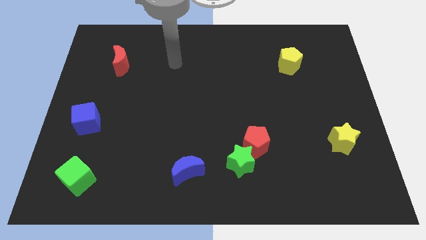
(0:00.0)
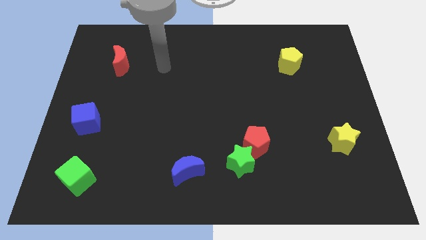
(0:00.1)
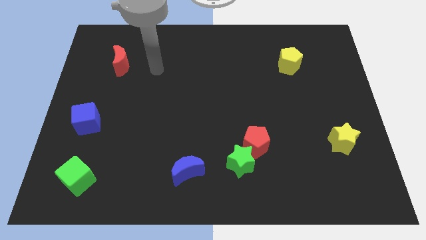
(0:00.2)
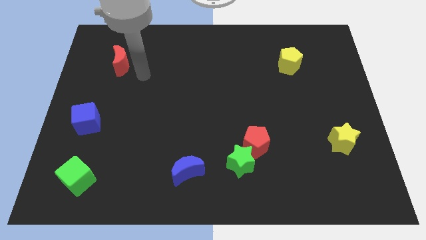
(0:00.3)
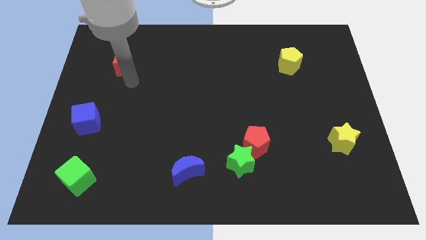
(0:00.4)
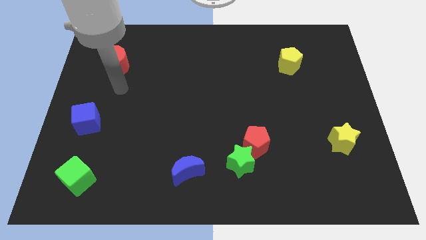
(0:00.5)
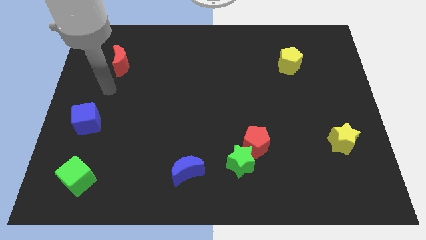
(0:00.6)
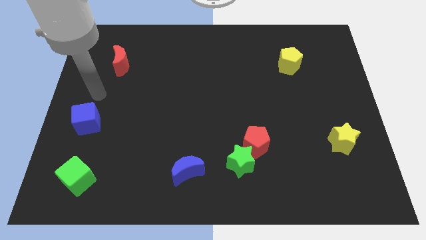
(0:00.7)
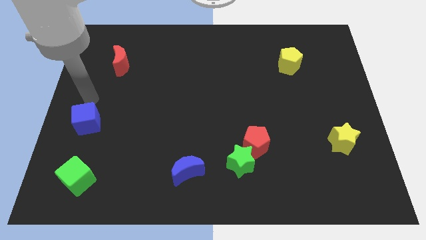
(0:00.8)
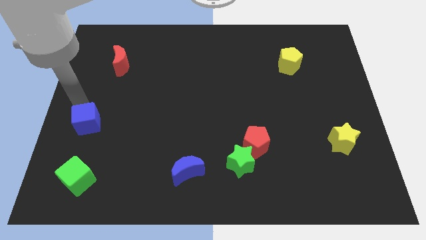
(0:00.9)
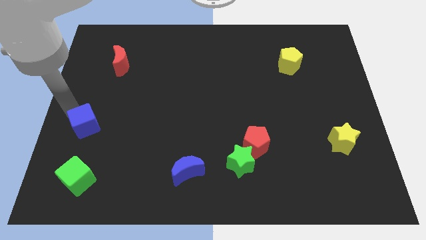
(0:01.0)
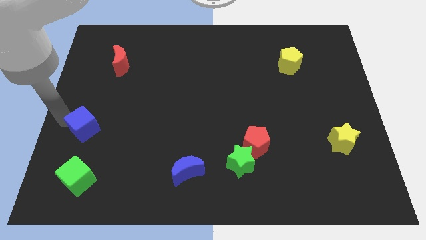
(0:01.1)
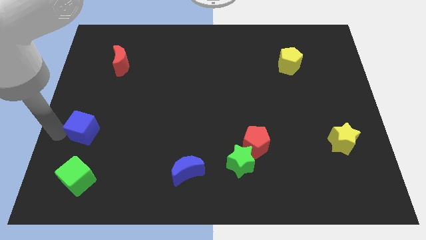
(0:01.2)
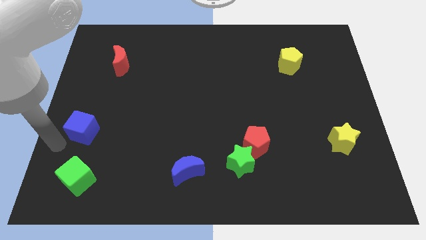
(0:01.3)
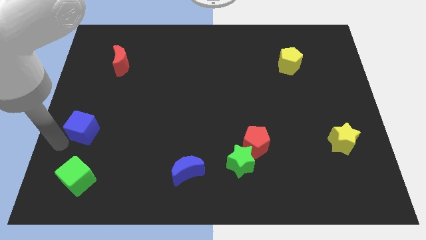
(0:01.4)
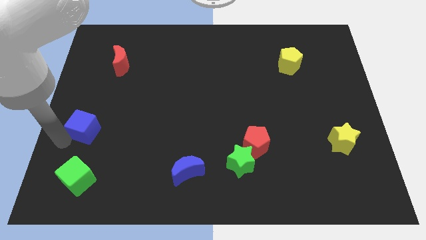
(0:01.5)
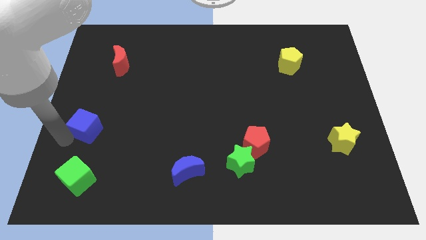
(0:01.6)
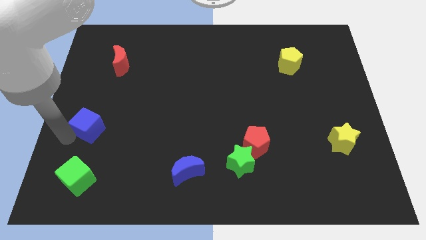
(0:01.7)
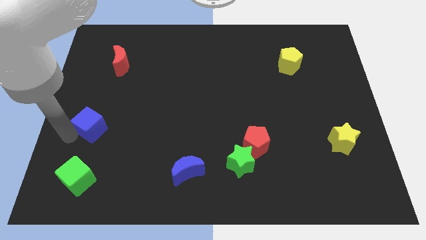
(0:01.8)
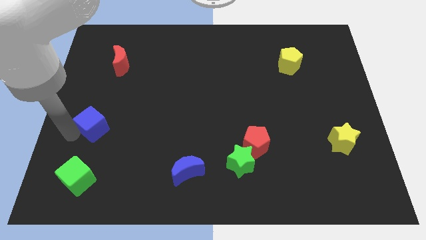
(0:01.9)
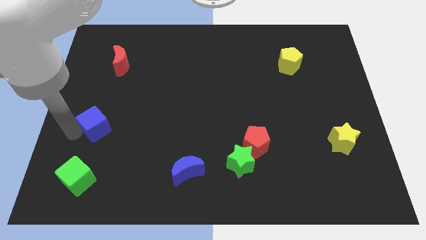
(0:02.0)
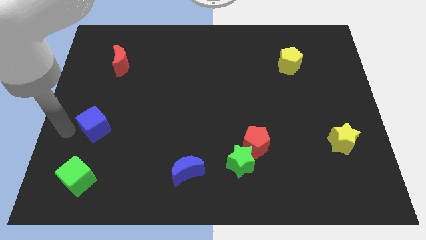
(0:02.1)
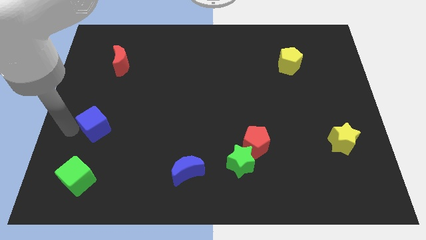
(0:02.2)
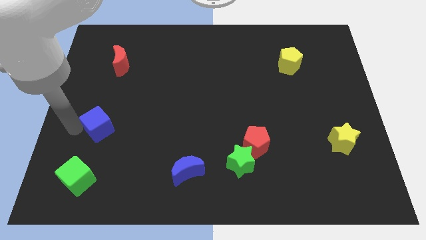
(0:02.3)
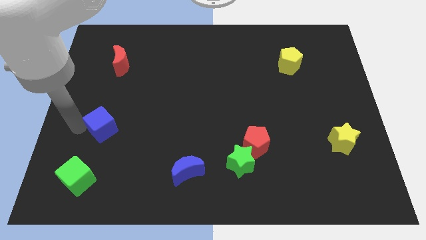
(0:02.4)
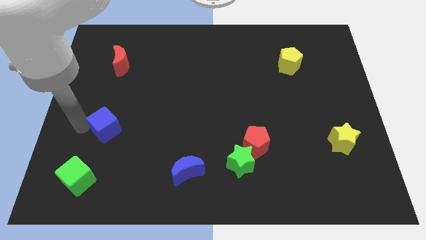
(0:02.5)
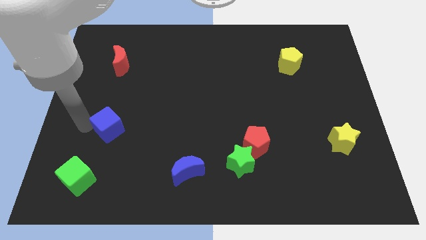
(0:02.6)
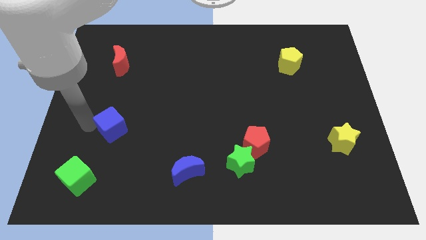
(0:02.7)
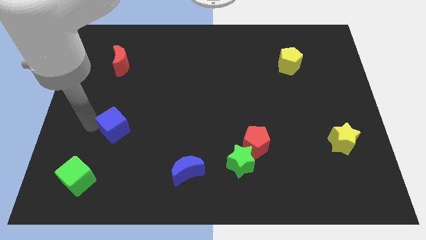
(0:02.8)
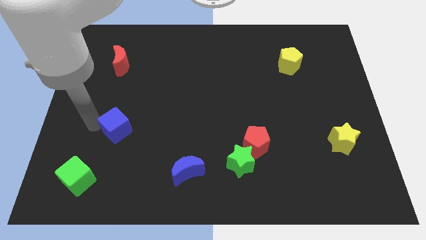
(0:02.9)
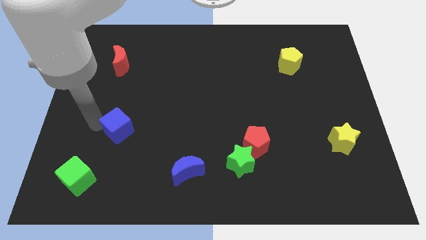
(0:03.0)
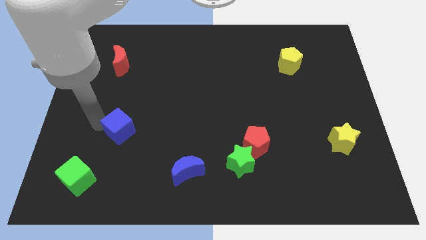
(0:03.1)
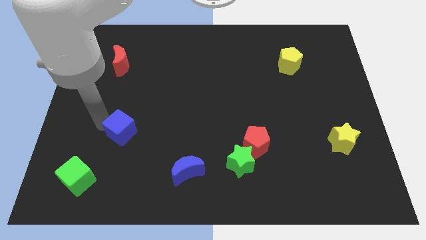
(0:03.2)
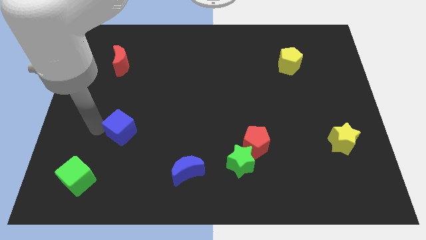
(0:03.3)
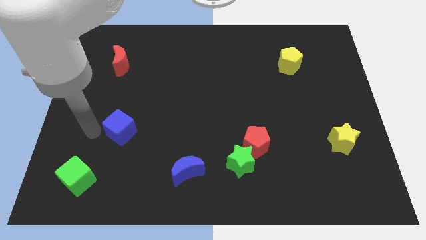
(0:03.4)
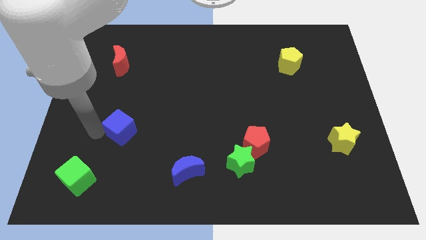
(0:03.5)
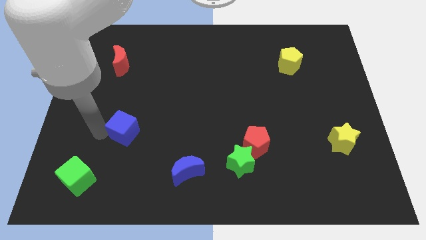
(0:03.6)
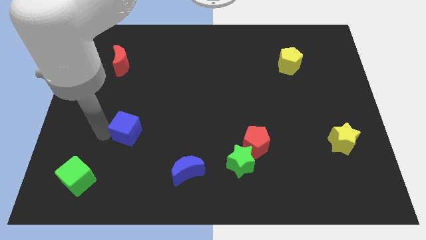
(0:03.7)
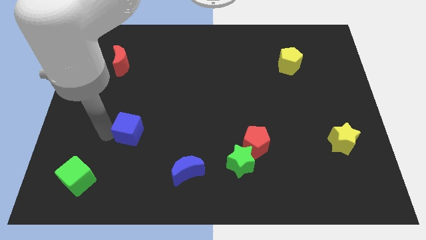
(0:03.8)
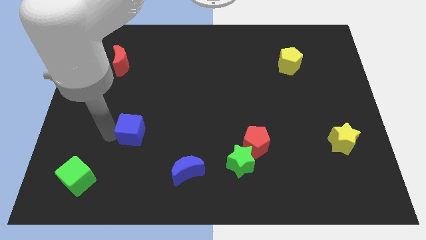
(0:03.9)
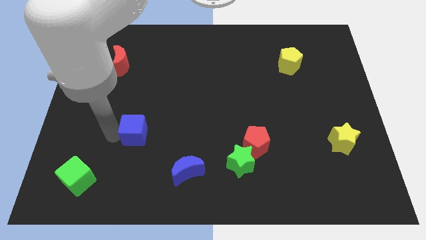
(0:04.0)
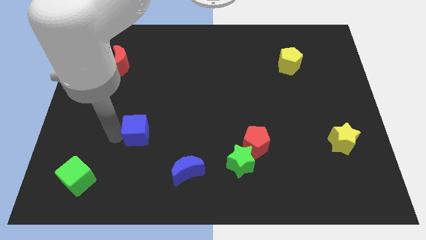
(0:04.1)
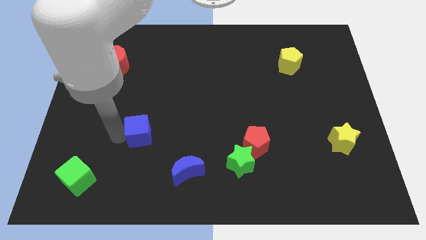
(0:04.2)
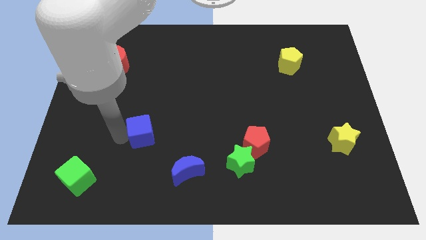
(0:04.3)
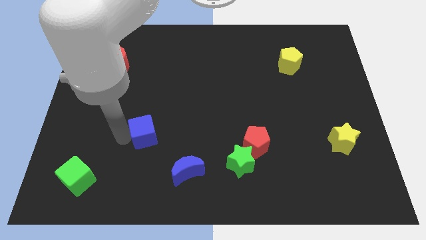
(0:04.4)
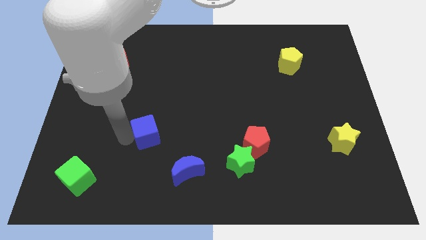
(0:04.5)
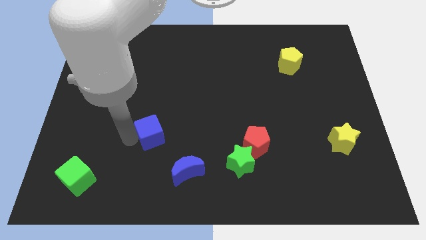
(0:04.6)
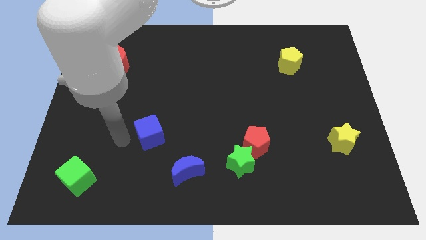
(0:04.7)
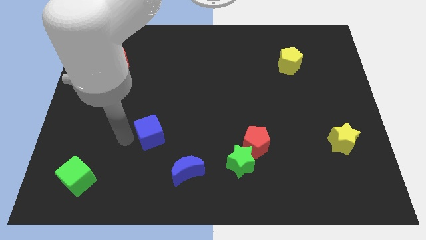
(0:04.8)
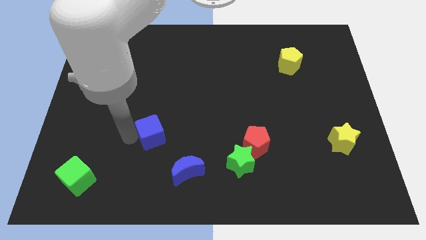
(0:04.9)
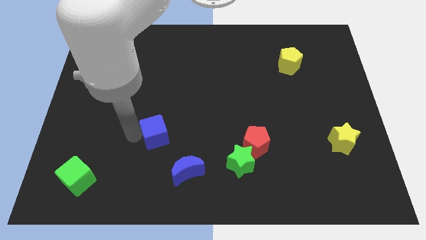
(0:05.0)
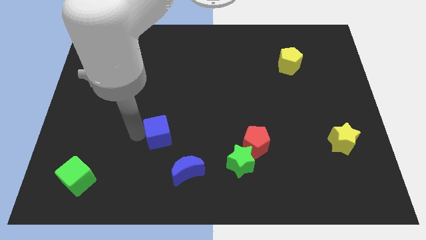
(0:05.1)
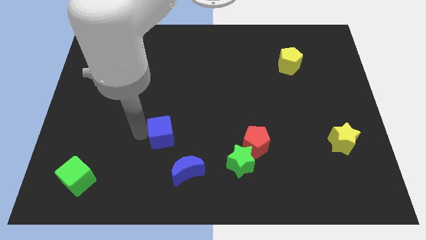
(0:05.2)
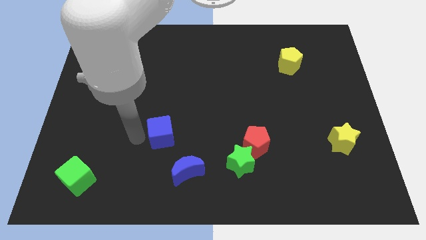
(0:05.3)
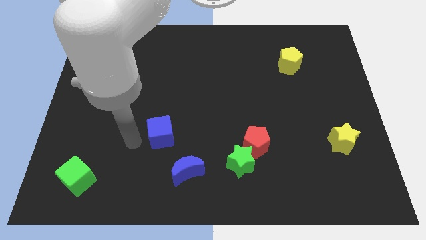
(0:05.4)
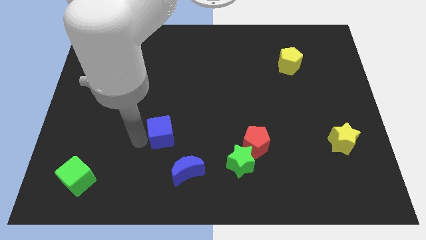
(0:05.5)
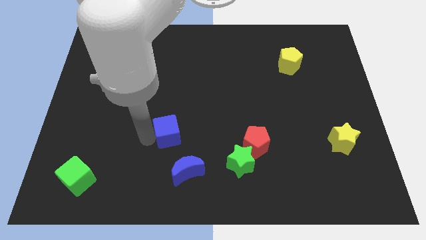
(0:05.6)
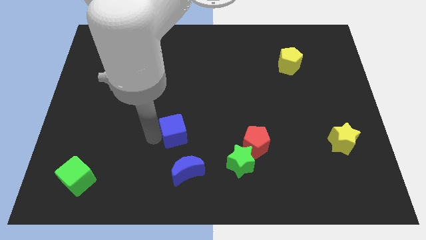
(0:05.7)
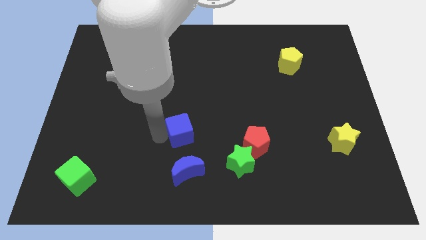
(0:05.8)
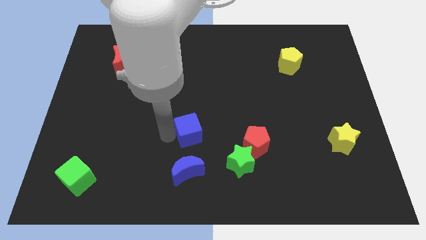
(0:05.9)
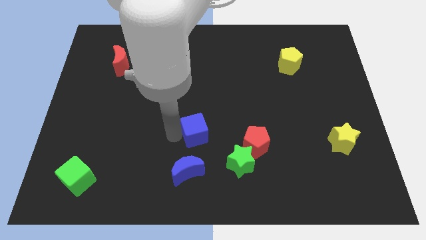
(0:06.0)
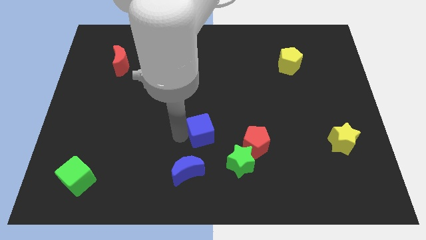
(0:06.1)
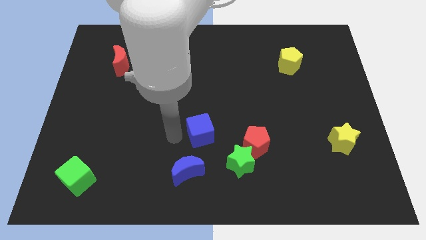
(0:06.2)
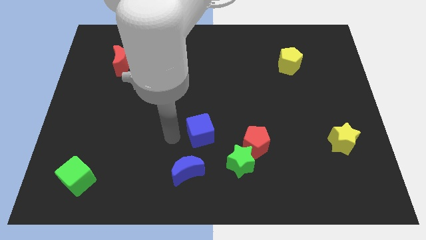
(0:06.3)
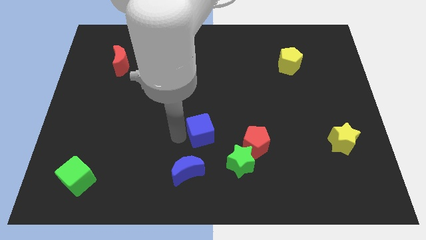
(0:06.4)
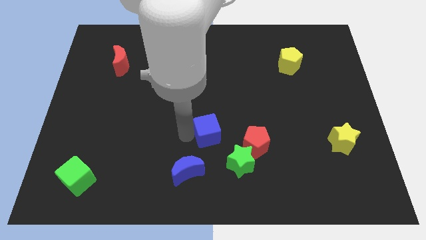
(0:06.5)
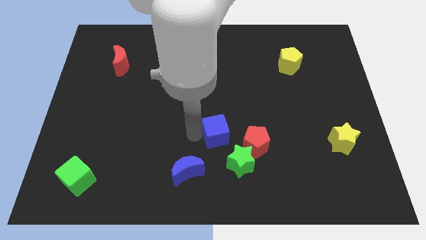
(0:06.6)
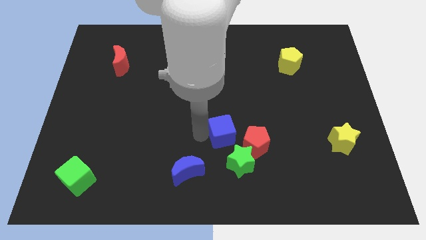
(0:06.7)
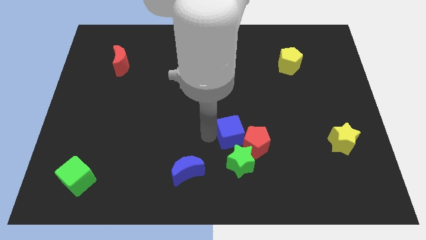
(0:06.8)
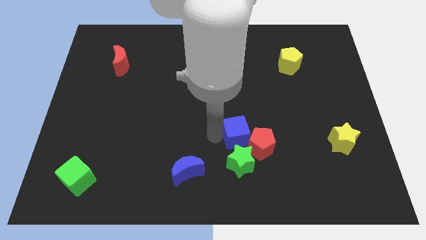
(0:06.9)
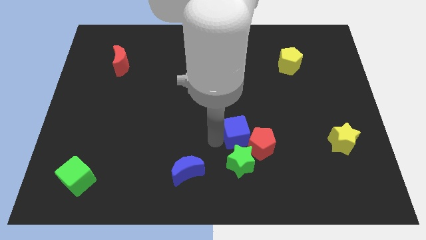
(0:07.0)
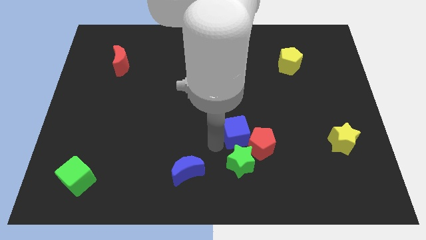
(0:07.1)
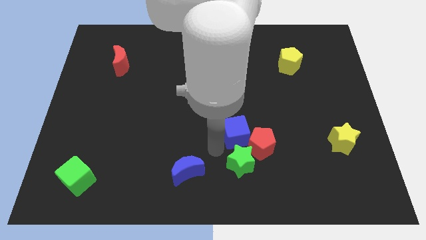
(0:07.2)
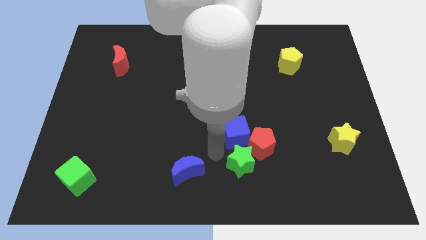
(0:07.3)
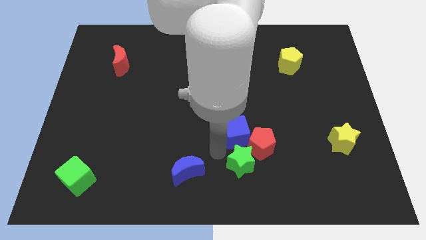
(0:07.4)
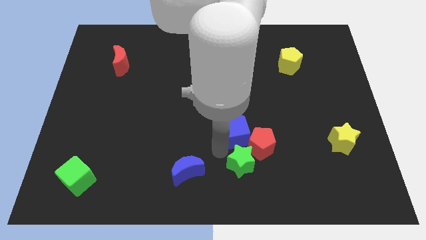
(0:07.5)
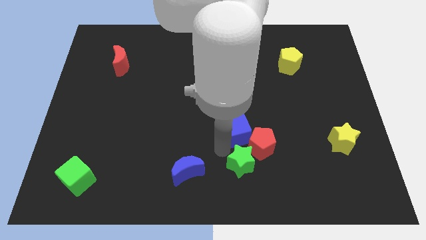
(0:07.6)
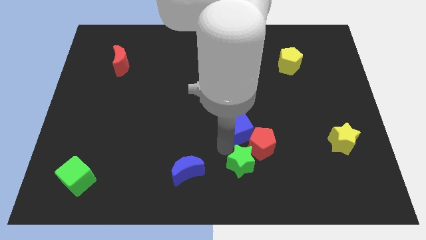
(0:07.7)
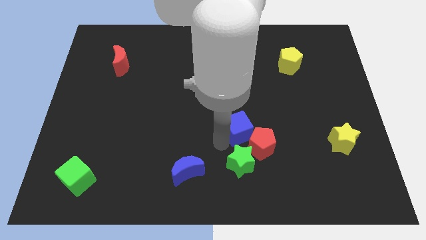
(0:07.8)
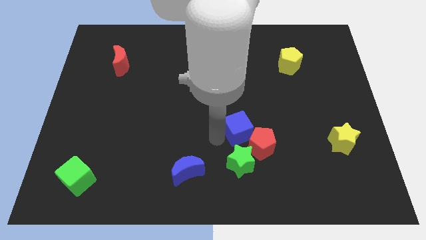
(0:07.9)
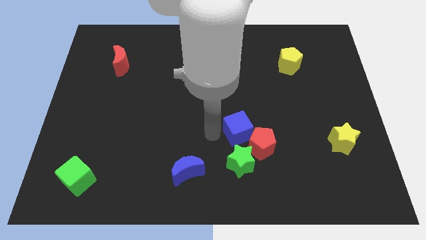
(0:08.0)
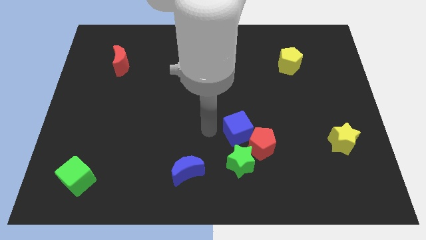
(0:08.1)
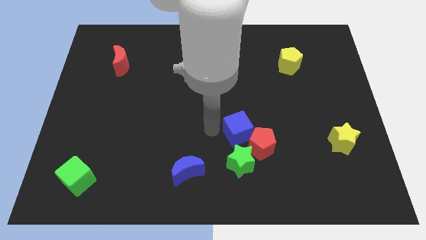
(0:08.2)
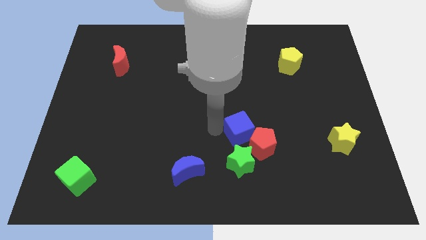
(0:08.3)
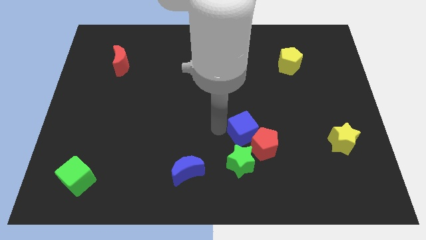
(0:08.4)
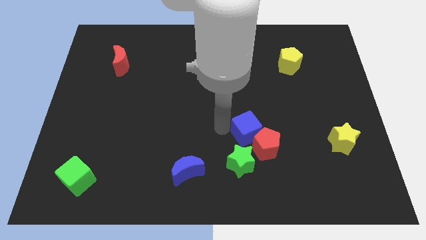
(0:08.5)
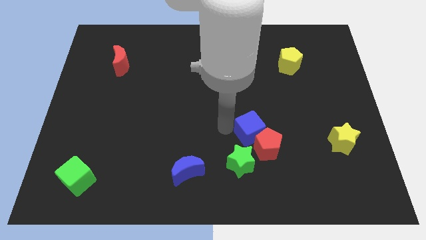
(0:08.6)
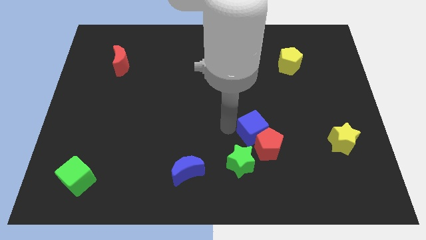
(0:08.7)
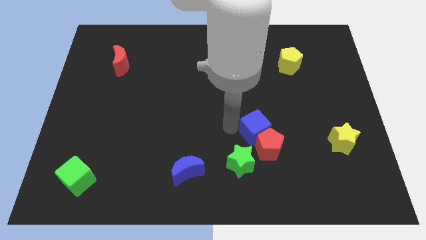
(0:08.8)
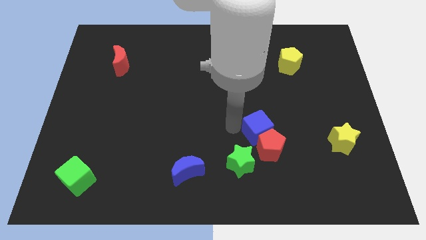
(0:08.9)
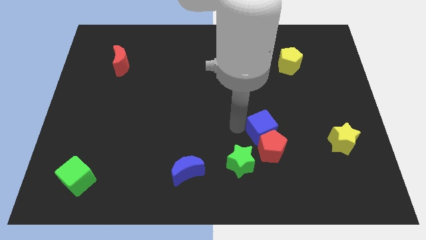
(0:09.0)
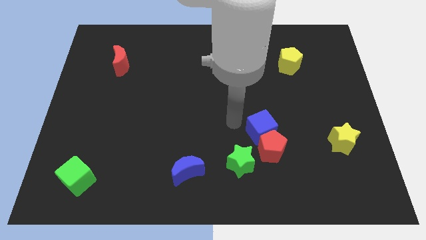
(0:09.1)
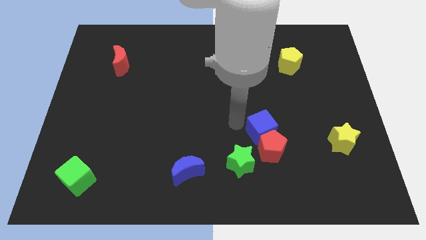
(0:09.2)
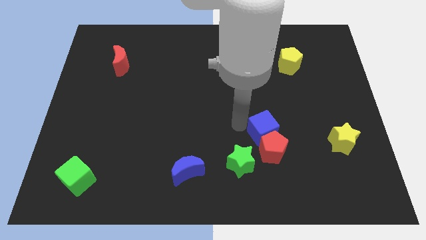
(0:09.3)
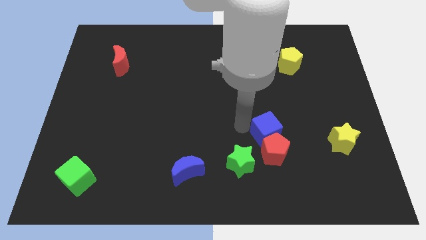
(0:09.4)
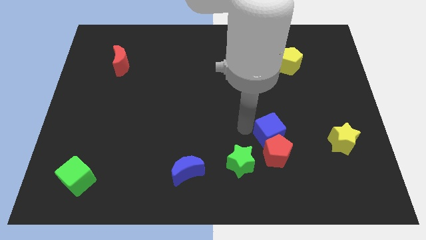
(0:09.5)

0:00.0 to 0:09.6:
put the blue cube just left of the yellow star
